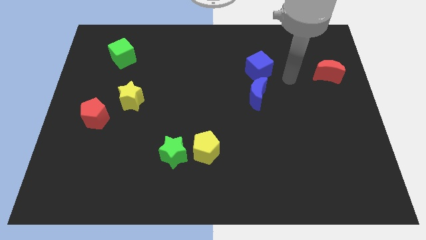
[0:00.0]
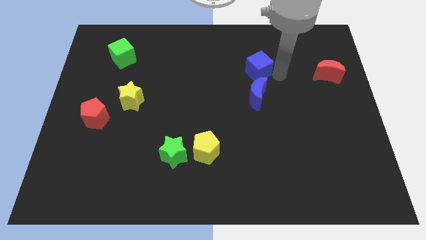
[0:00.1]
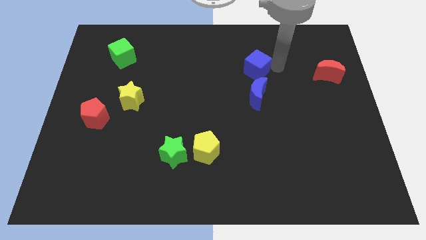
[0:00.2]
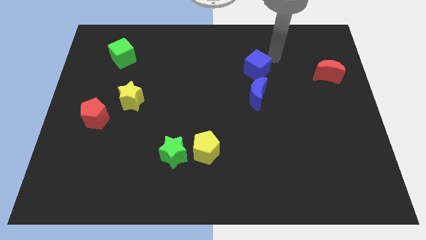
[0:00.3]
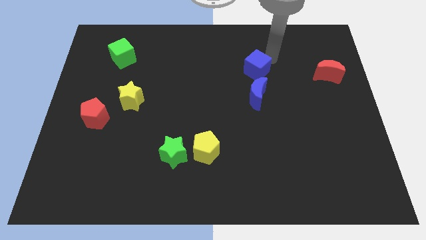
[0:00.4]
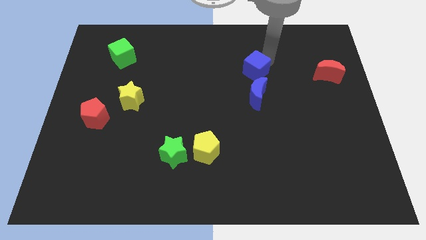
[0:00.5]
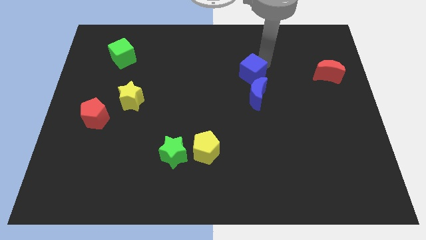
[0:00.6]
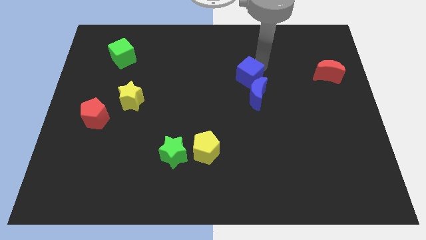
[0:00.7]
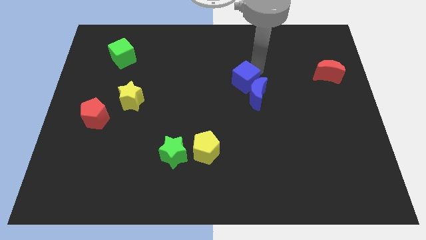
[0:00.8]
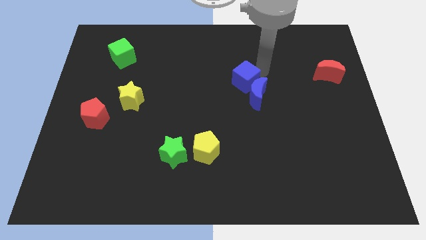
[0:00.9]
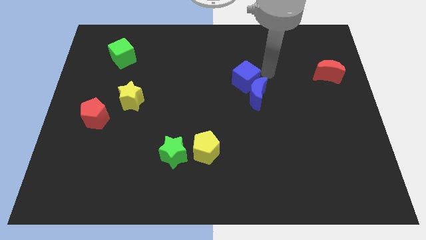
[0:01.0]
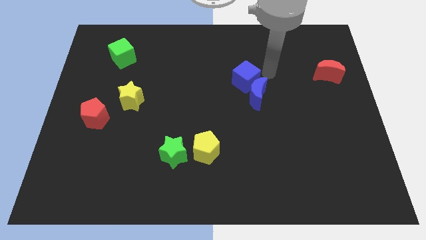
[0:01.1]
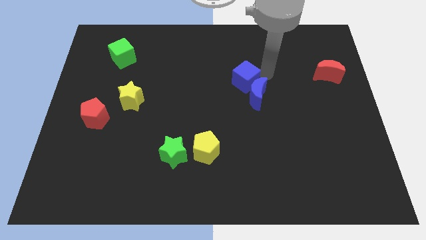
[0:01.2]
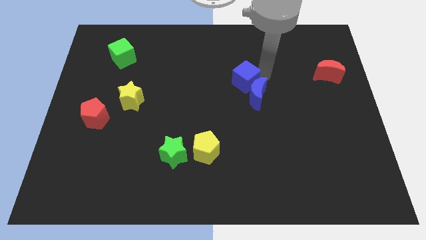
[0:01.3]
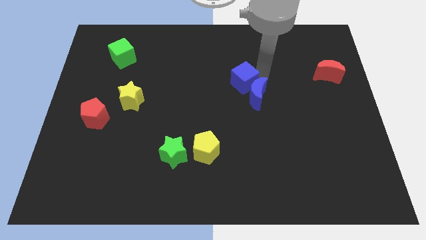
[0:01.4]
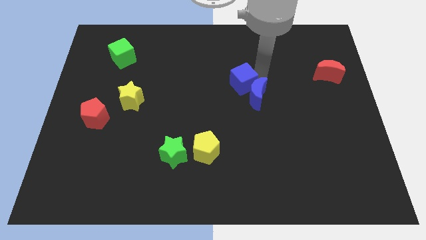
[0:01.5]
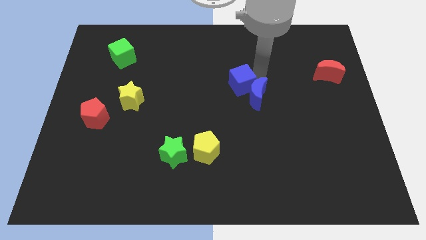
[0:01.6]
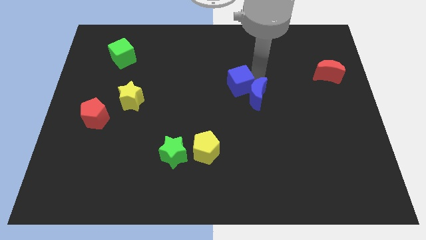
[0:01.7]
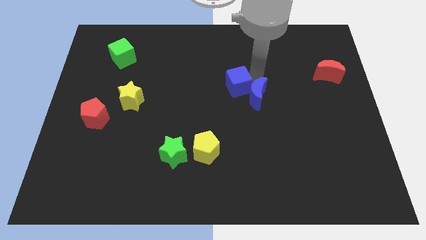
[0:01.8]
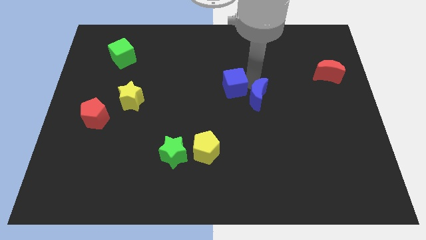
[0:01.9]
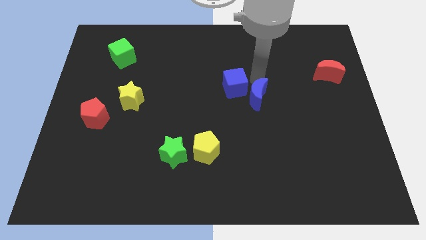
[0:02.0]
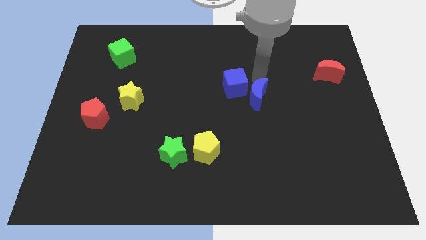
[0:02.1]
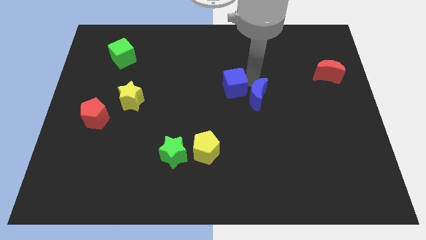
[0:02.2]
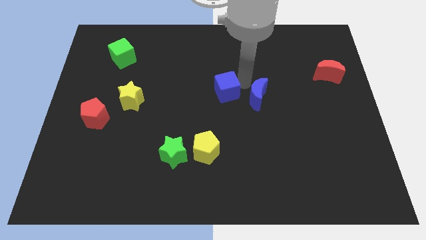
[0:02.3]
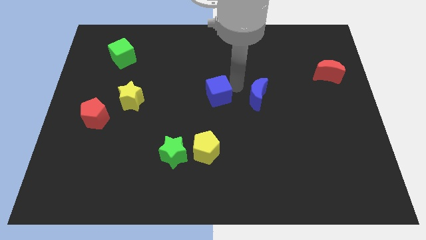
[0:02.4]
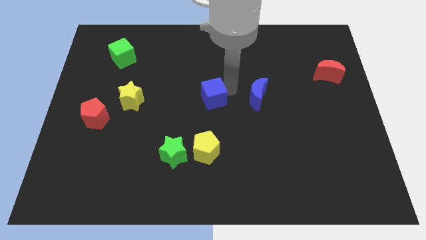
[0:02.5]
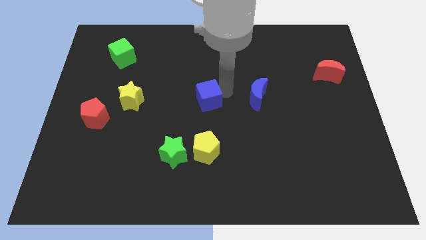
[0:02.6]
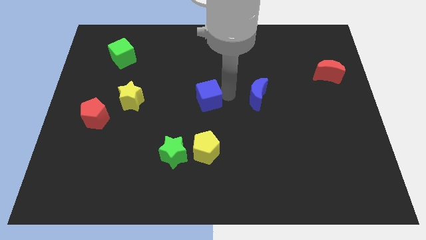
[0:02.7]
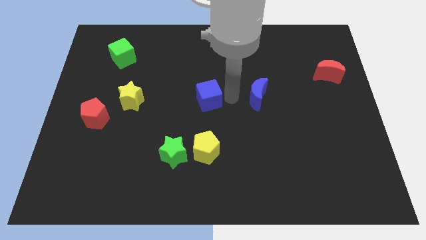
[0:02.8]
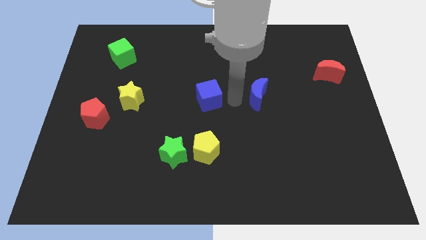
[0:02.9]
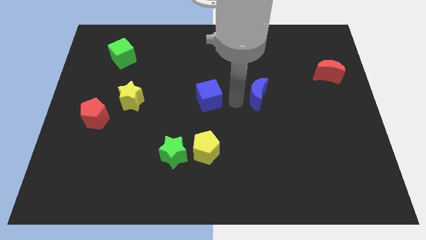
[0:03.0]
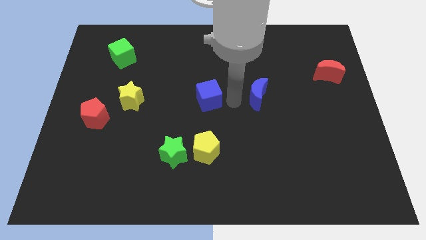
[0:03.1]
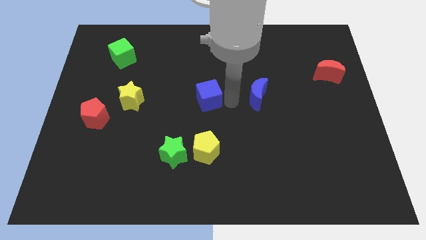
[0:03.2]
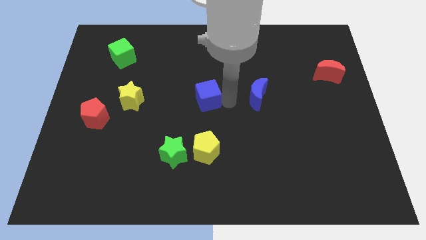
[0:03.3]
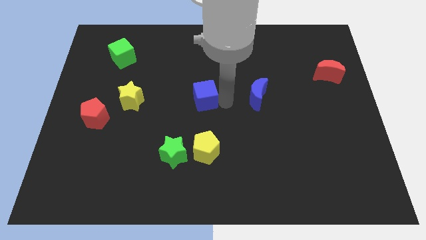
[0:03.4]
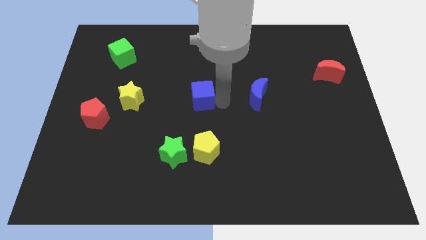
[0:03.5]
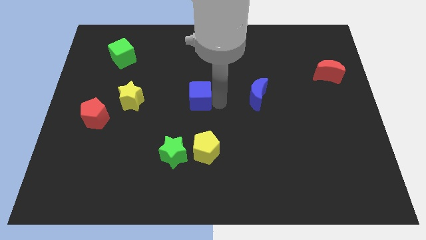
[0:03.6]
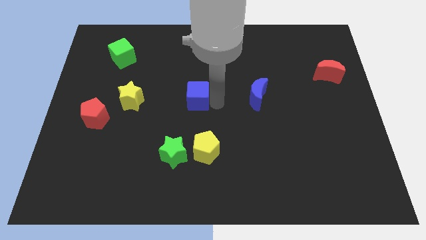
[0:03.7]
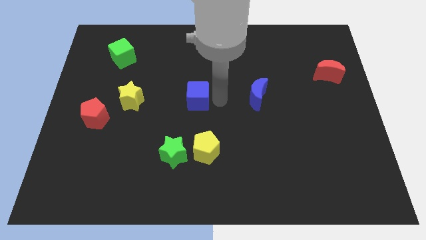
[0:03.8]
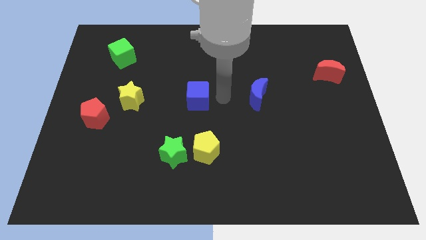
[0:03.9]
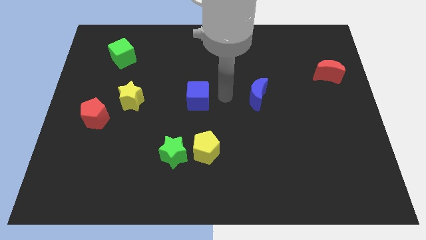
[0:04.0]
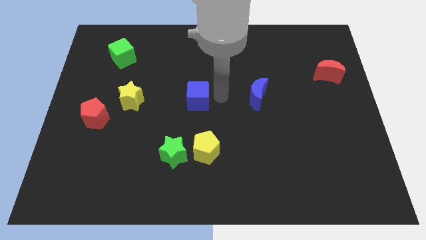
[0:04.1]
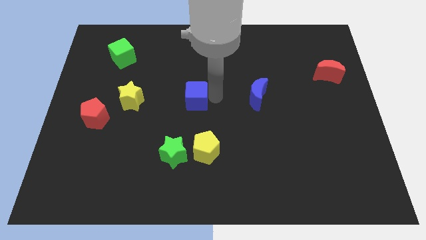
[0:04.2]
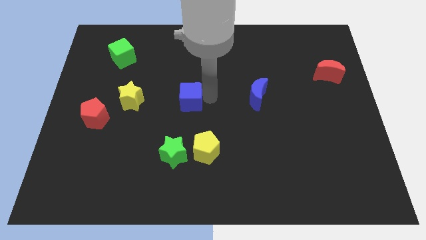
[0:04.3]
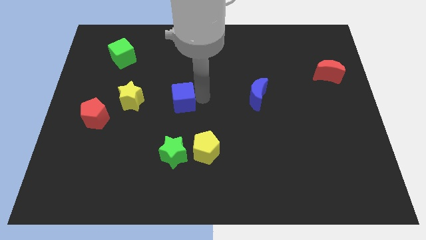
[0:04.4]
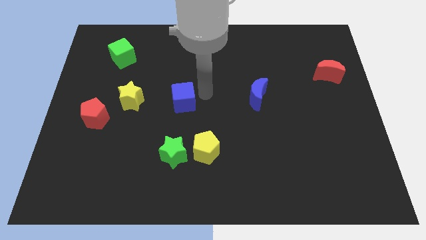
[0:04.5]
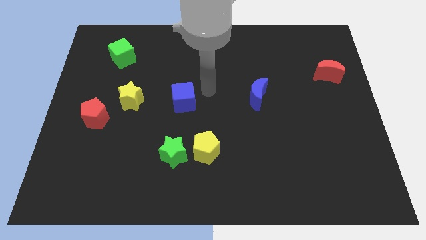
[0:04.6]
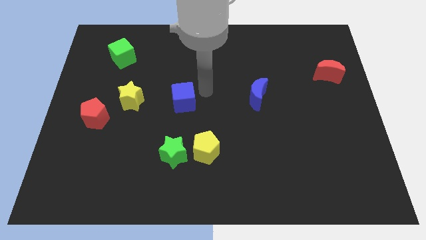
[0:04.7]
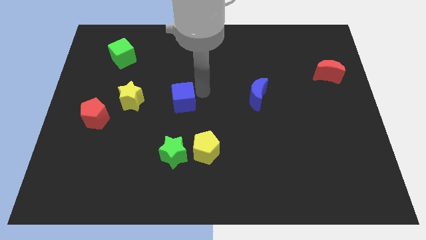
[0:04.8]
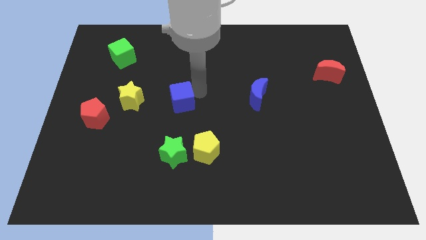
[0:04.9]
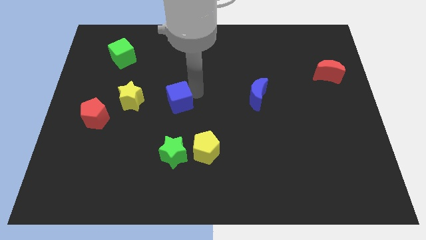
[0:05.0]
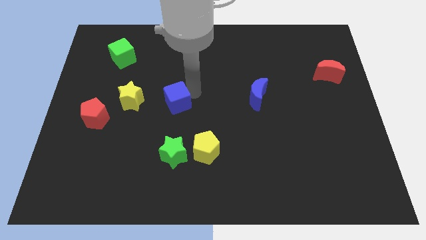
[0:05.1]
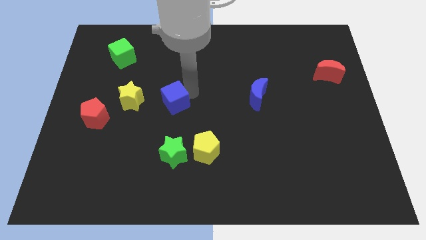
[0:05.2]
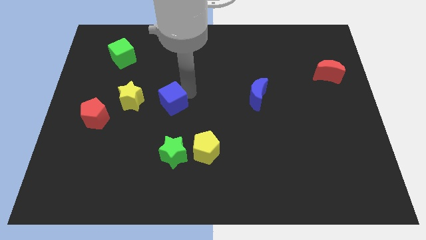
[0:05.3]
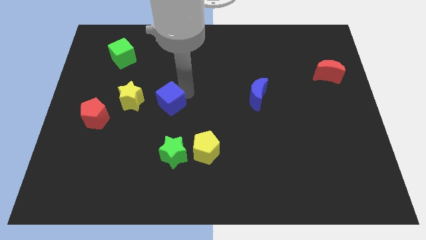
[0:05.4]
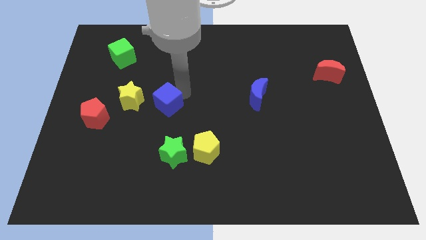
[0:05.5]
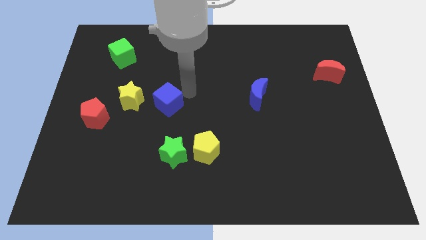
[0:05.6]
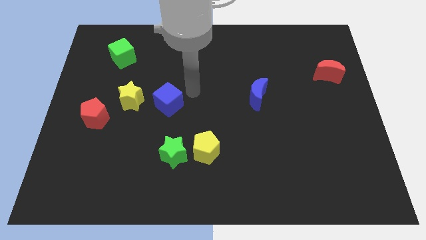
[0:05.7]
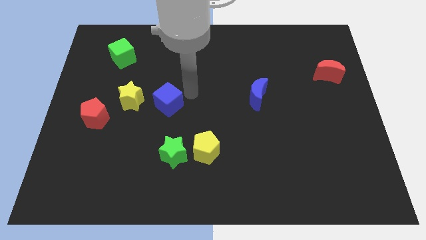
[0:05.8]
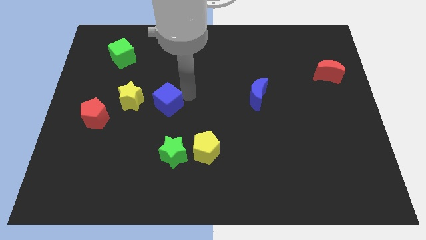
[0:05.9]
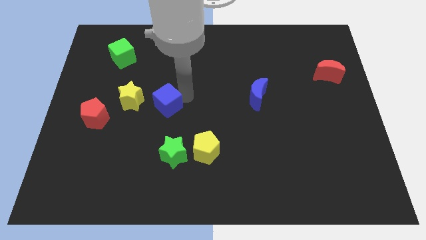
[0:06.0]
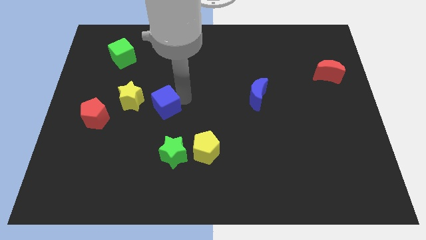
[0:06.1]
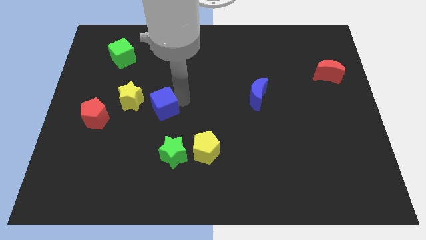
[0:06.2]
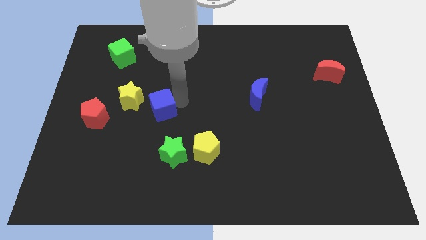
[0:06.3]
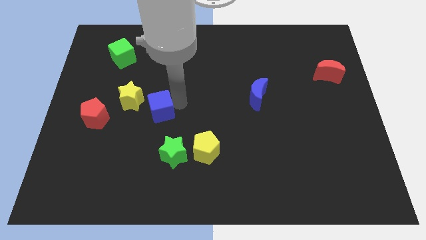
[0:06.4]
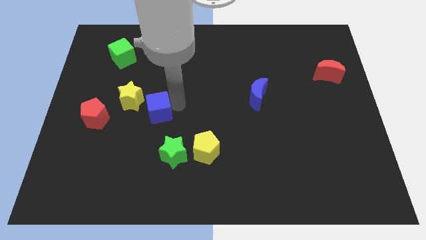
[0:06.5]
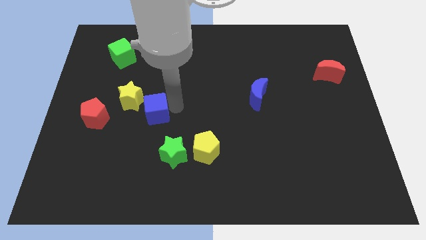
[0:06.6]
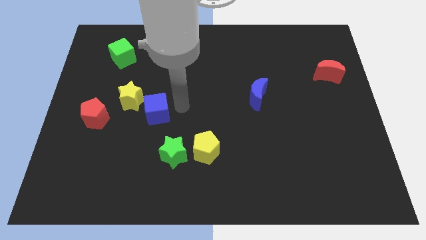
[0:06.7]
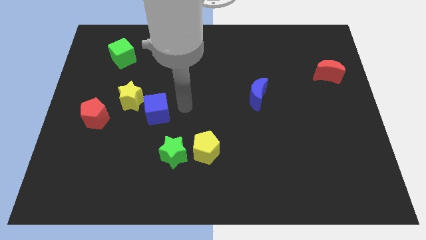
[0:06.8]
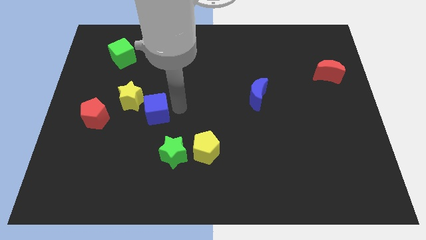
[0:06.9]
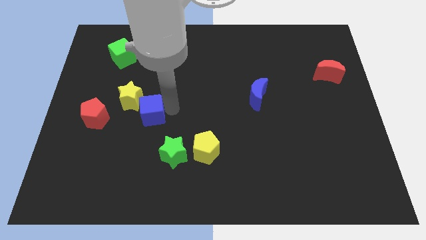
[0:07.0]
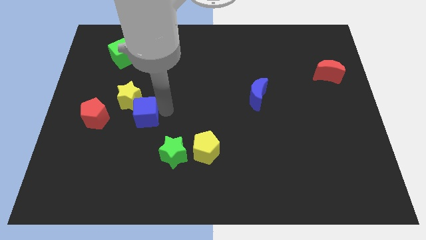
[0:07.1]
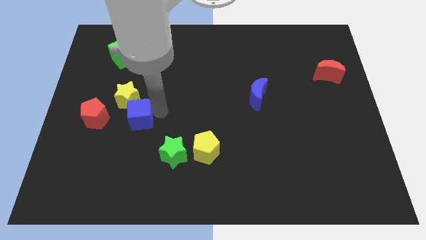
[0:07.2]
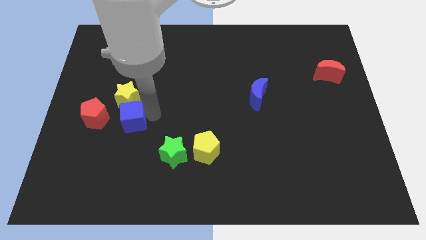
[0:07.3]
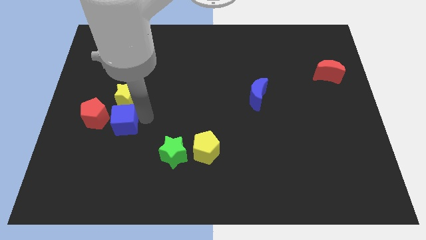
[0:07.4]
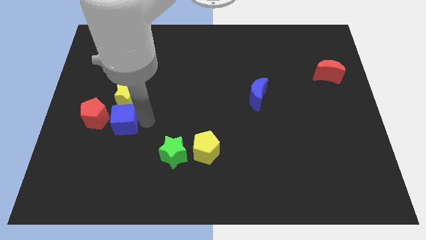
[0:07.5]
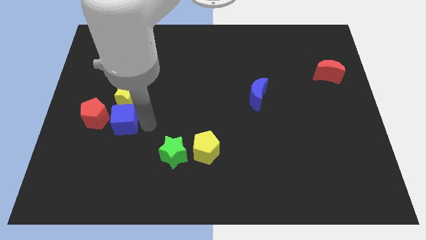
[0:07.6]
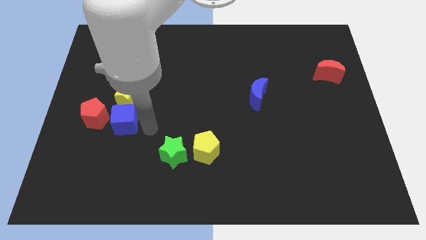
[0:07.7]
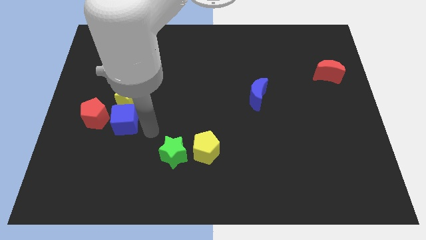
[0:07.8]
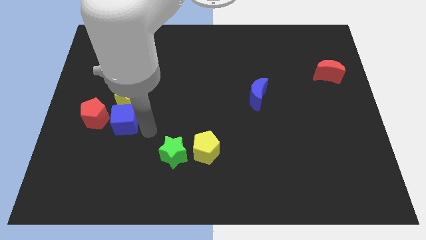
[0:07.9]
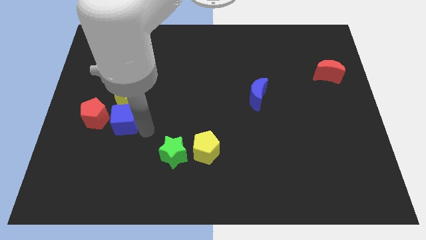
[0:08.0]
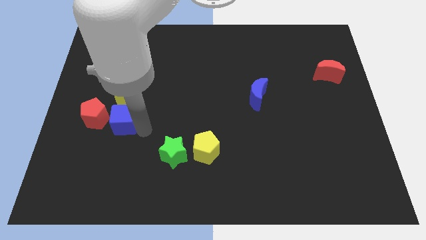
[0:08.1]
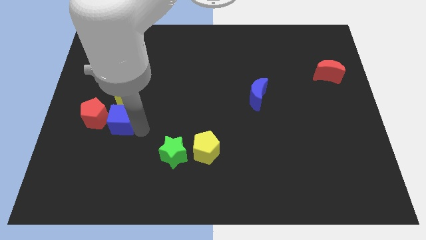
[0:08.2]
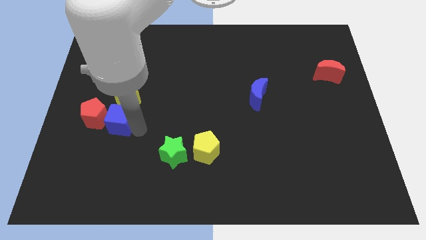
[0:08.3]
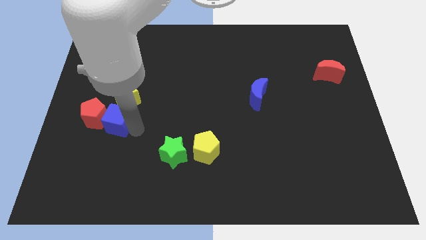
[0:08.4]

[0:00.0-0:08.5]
slide the blue cube next to the red pentagon
